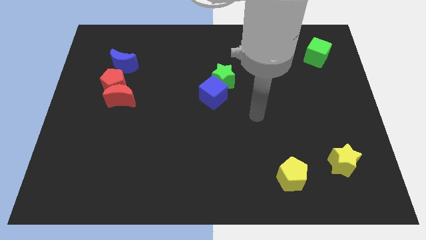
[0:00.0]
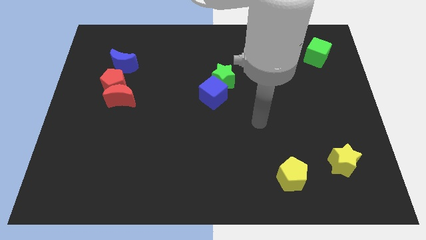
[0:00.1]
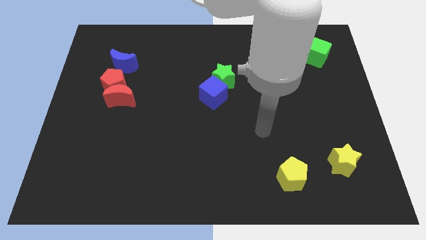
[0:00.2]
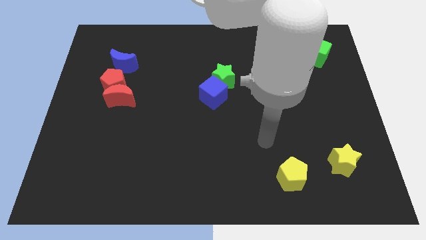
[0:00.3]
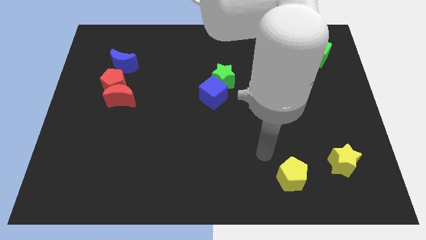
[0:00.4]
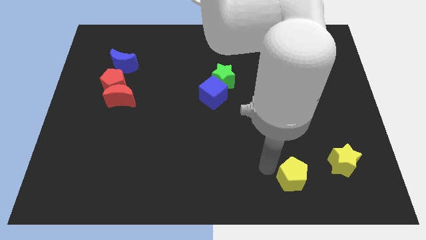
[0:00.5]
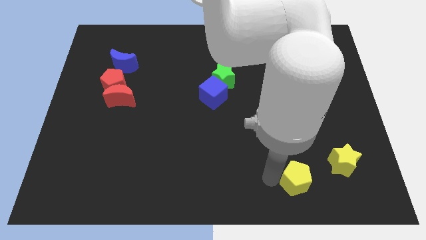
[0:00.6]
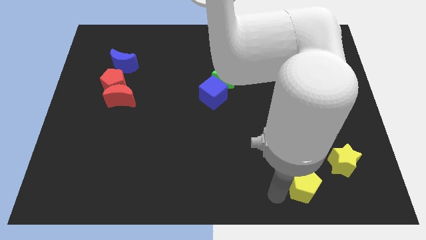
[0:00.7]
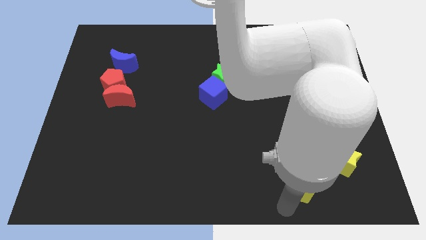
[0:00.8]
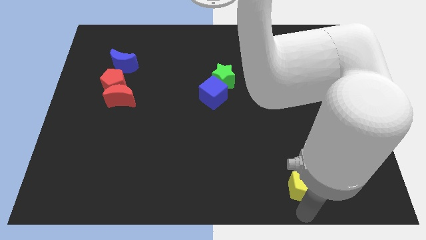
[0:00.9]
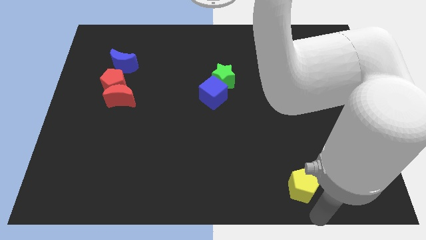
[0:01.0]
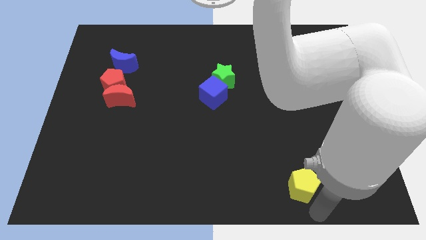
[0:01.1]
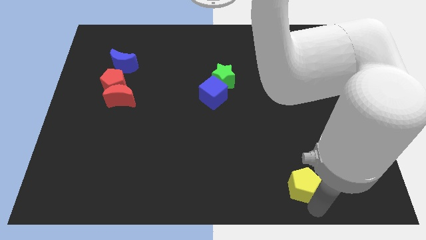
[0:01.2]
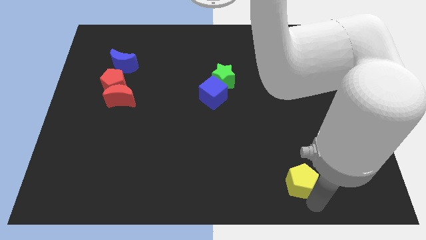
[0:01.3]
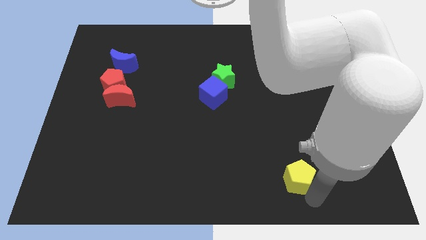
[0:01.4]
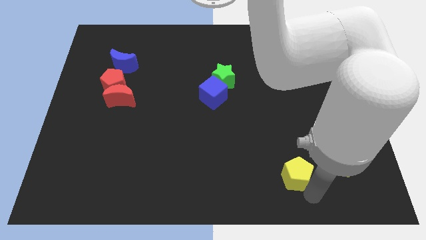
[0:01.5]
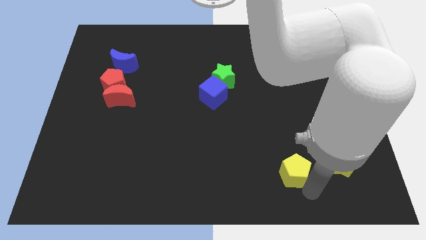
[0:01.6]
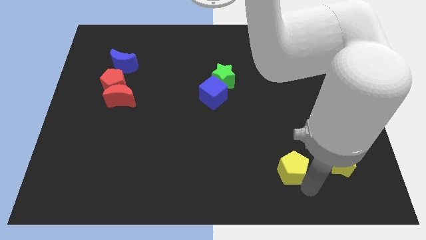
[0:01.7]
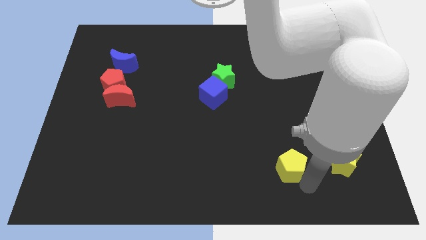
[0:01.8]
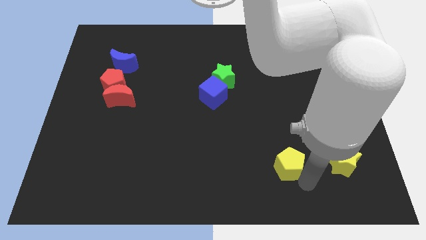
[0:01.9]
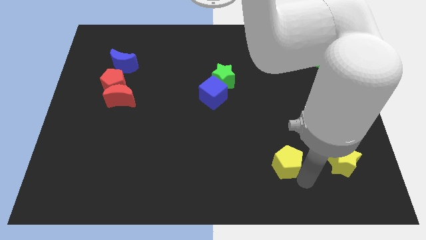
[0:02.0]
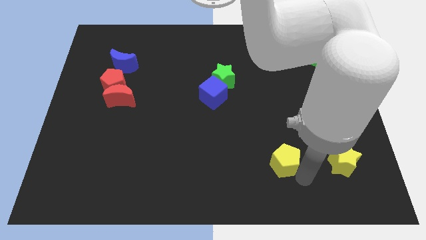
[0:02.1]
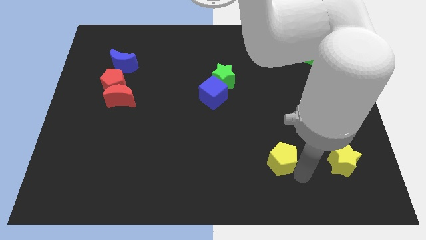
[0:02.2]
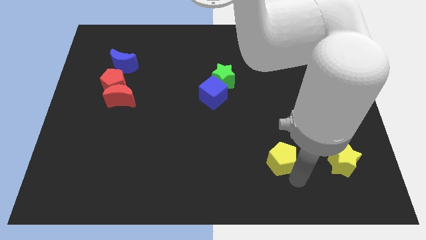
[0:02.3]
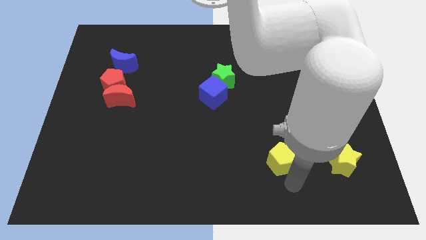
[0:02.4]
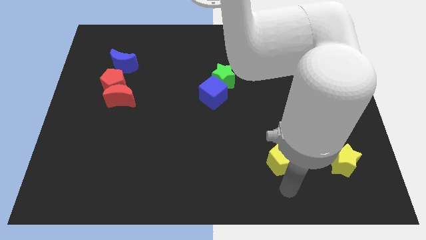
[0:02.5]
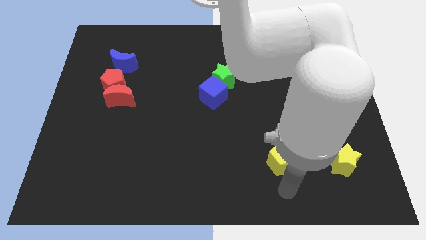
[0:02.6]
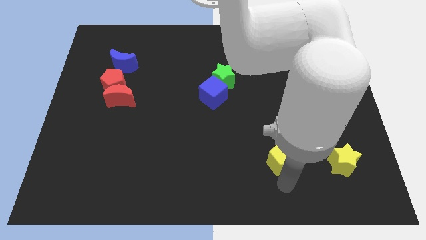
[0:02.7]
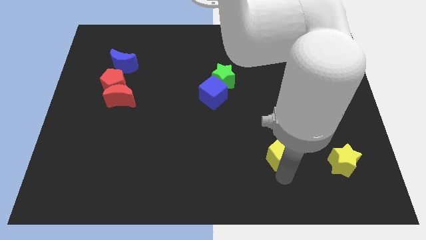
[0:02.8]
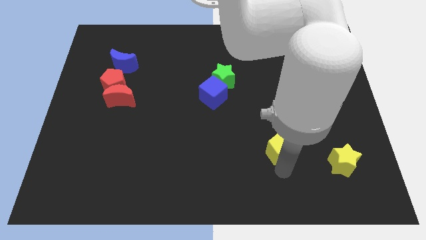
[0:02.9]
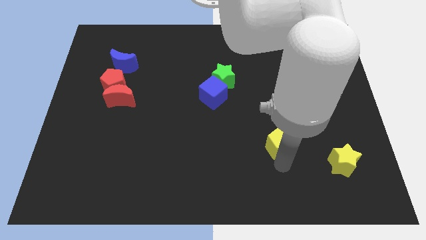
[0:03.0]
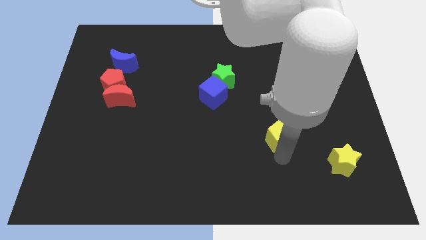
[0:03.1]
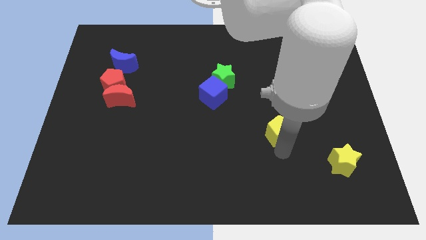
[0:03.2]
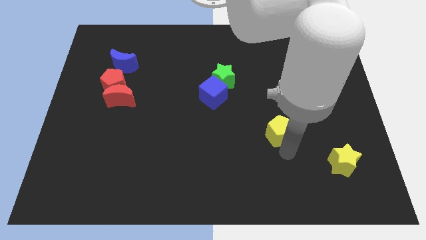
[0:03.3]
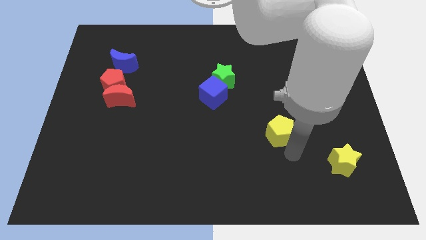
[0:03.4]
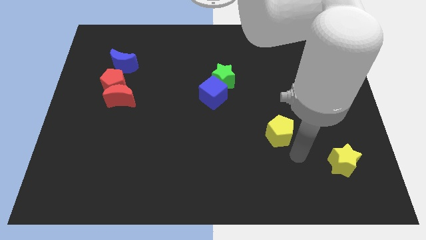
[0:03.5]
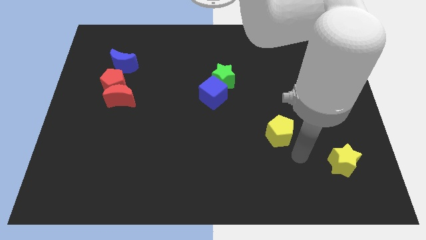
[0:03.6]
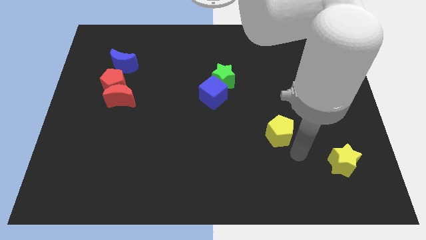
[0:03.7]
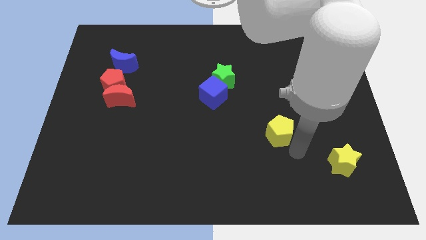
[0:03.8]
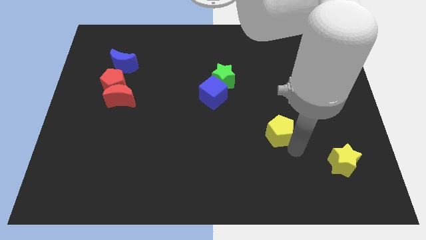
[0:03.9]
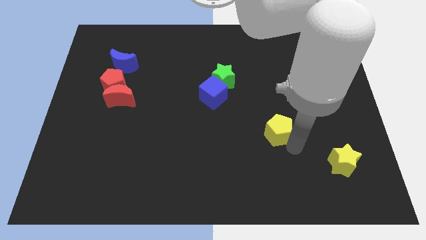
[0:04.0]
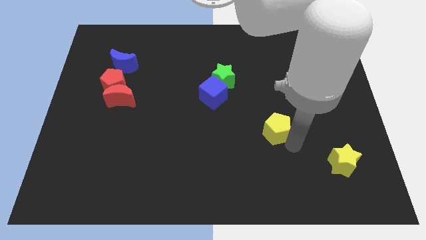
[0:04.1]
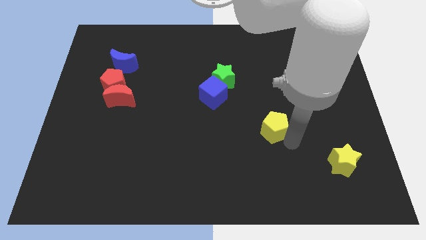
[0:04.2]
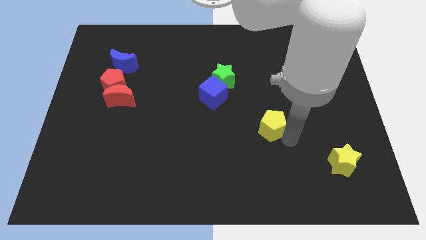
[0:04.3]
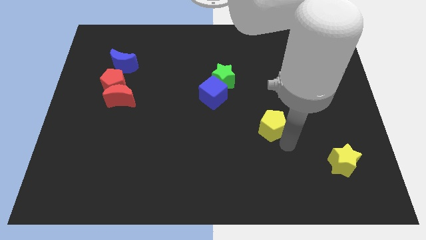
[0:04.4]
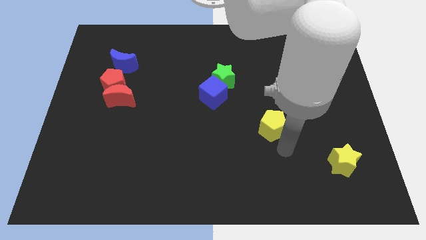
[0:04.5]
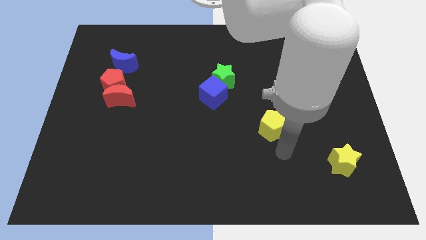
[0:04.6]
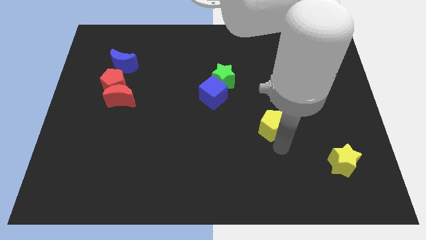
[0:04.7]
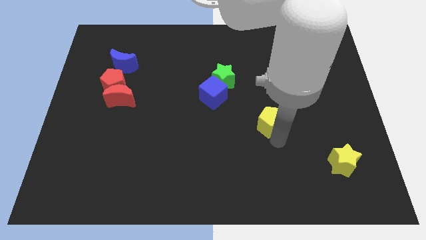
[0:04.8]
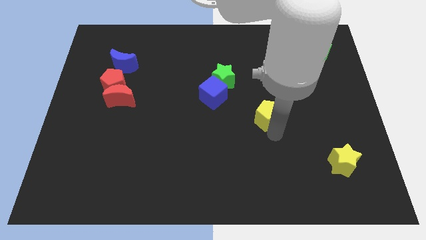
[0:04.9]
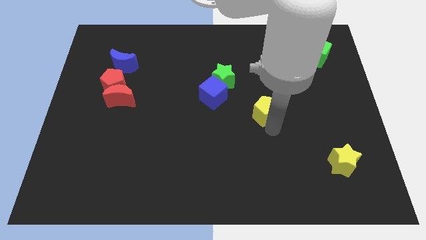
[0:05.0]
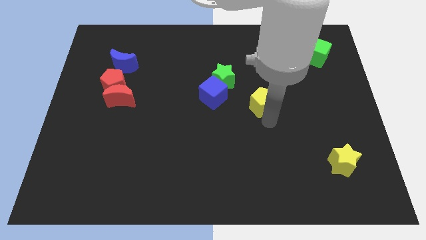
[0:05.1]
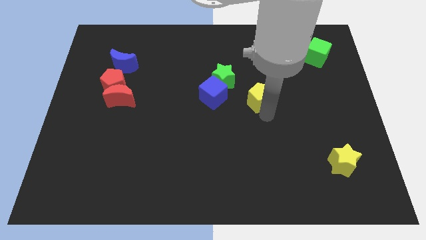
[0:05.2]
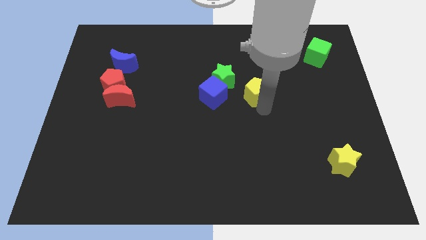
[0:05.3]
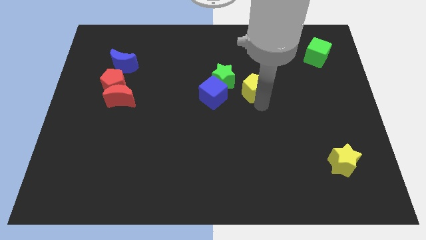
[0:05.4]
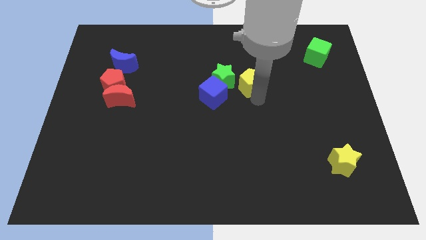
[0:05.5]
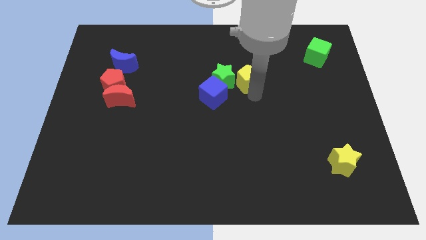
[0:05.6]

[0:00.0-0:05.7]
move the yellow pentagon to the top right of the green star

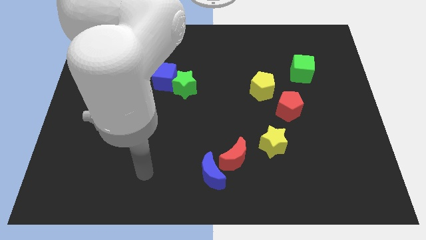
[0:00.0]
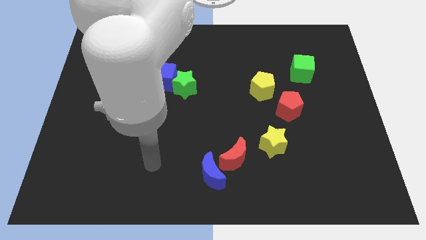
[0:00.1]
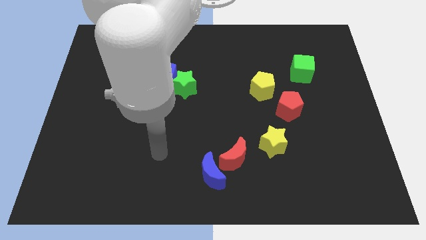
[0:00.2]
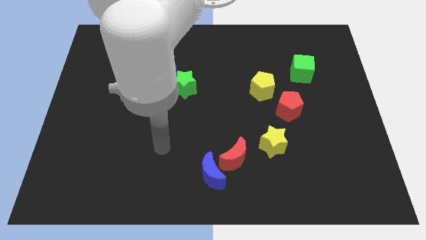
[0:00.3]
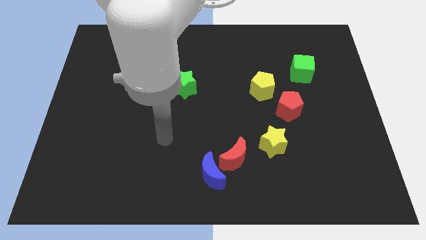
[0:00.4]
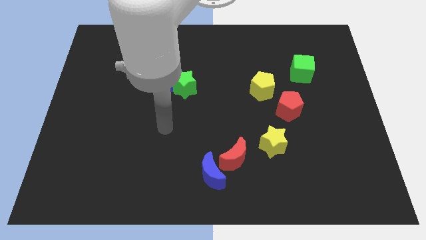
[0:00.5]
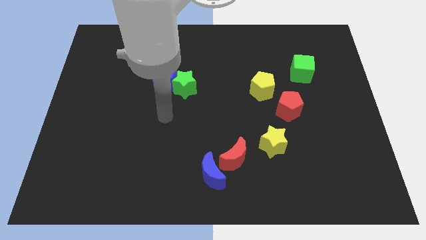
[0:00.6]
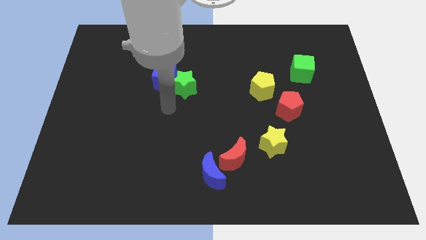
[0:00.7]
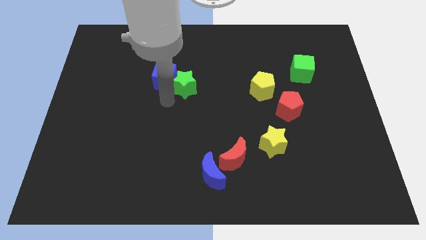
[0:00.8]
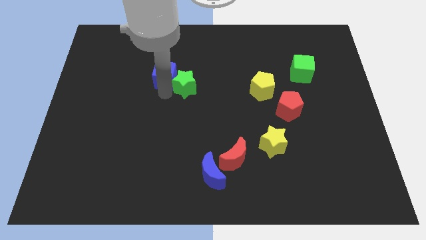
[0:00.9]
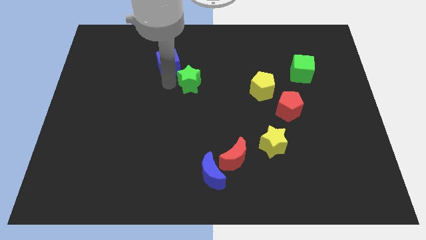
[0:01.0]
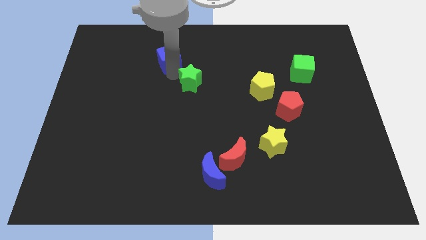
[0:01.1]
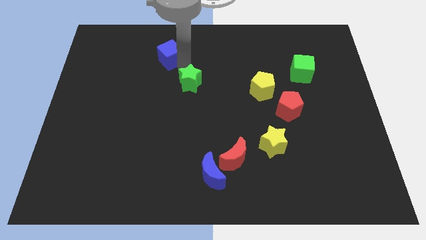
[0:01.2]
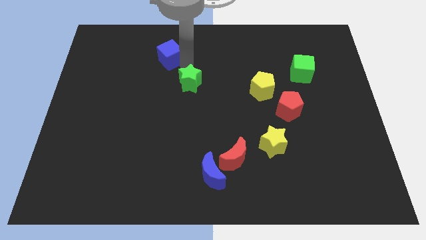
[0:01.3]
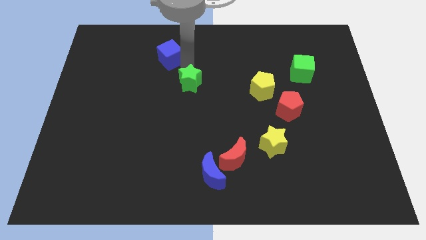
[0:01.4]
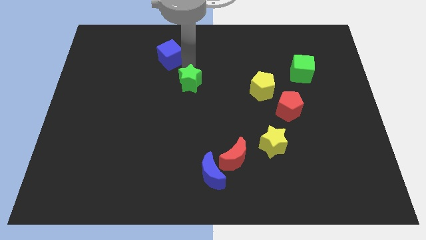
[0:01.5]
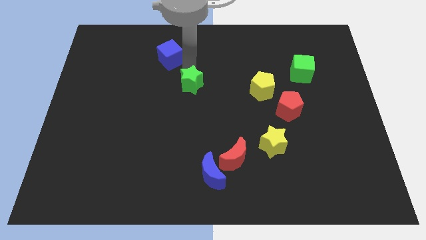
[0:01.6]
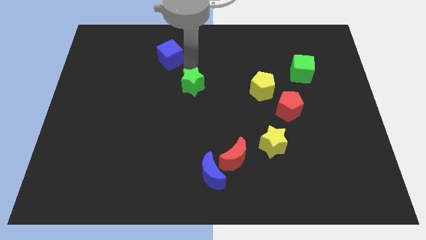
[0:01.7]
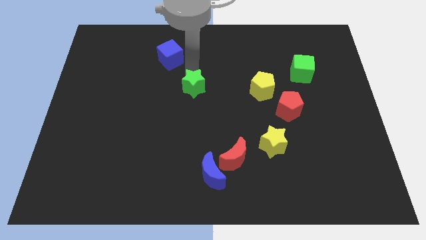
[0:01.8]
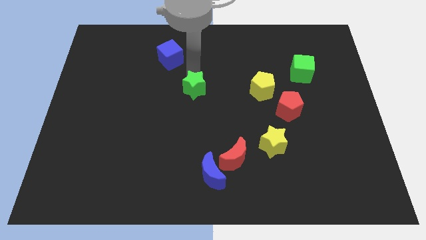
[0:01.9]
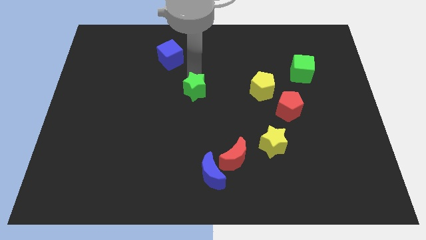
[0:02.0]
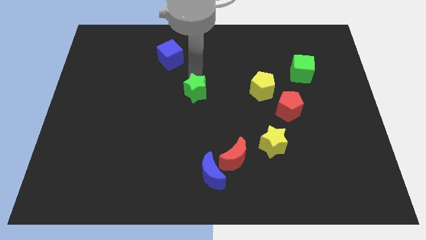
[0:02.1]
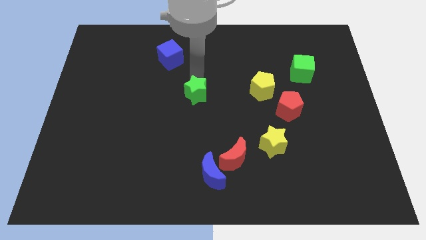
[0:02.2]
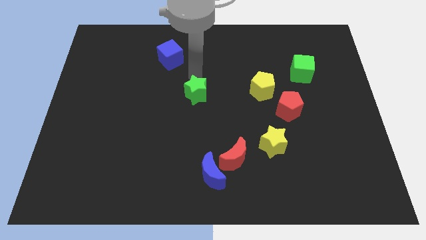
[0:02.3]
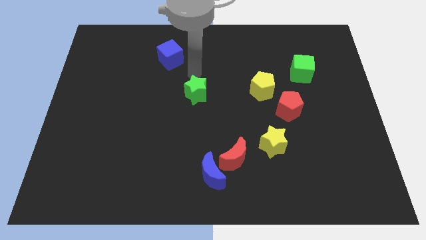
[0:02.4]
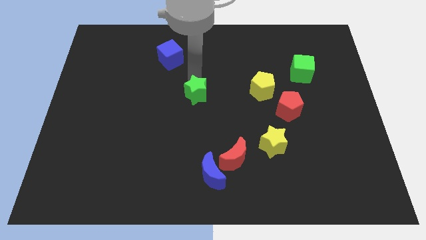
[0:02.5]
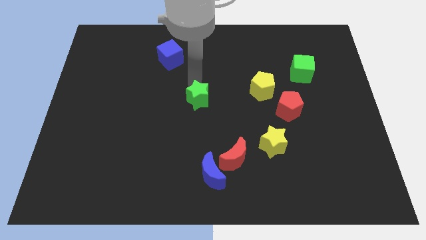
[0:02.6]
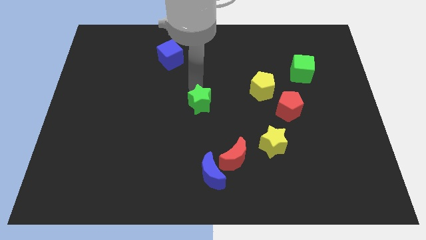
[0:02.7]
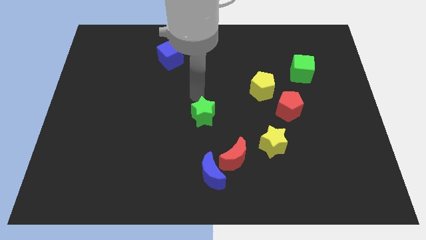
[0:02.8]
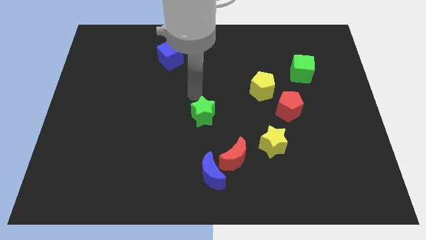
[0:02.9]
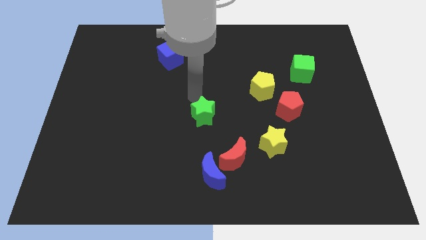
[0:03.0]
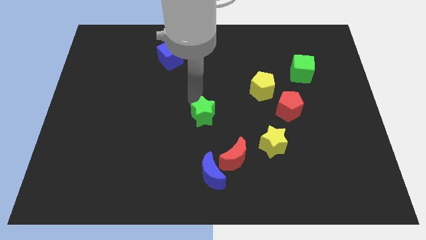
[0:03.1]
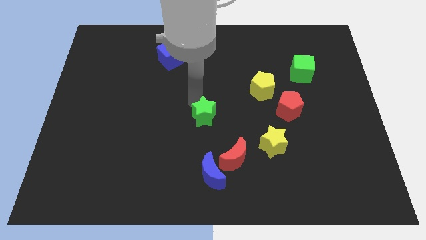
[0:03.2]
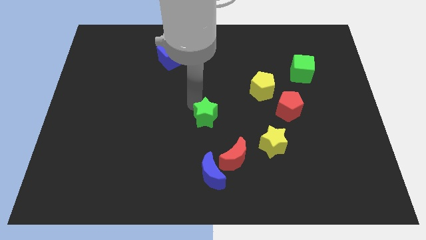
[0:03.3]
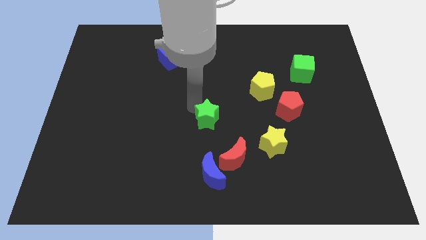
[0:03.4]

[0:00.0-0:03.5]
push the green star to the top left of the red moon
